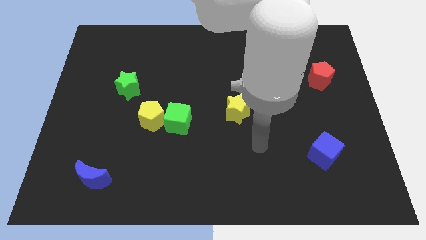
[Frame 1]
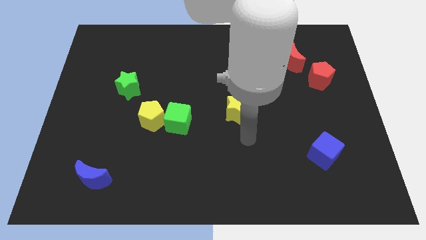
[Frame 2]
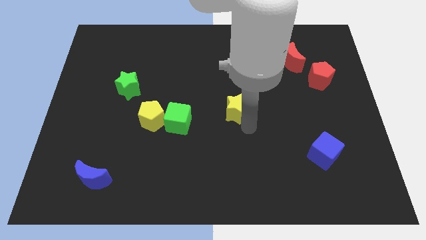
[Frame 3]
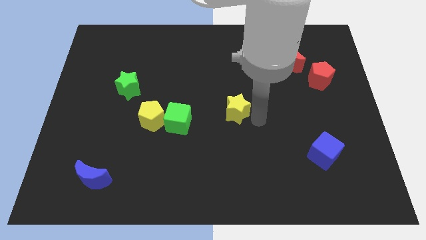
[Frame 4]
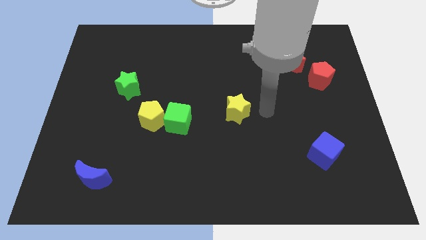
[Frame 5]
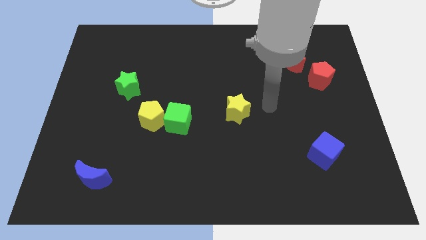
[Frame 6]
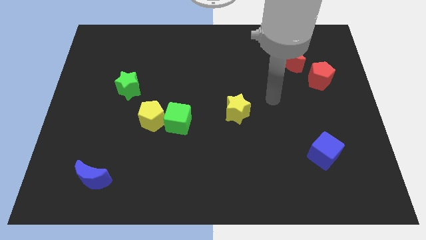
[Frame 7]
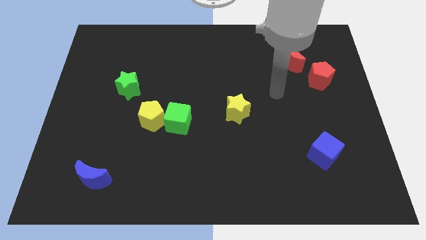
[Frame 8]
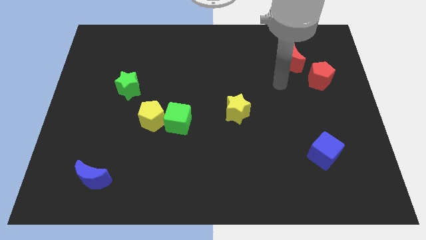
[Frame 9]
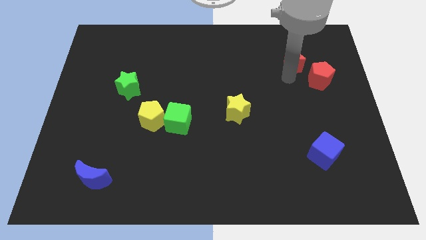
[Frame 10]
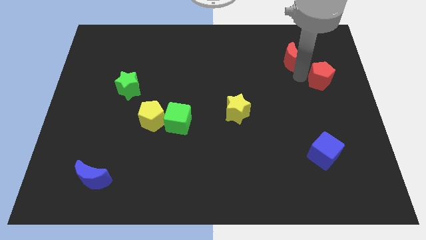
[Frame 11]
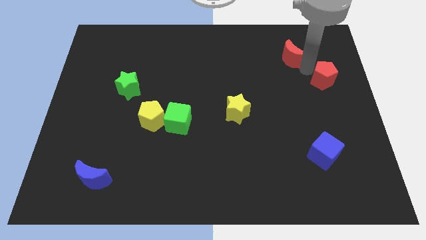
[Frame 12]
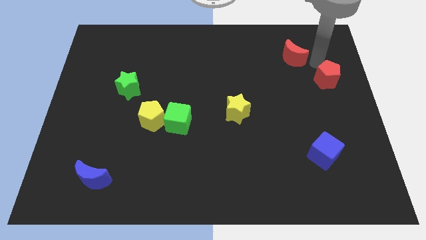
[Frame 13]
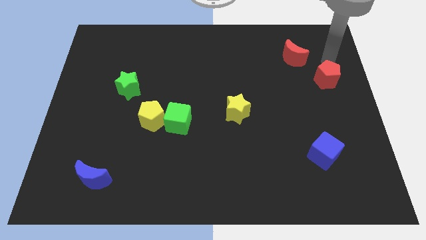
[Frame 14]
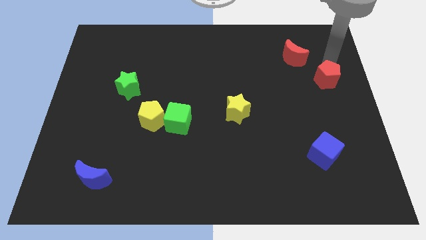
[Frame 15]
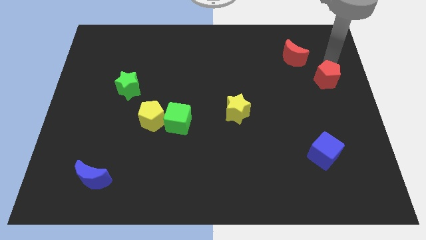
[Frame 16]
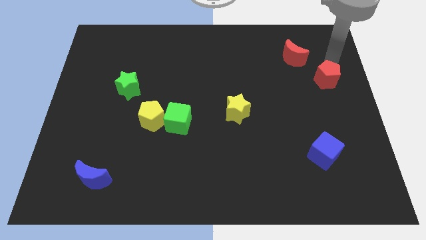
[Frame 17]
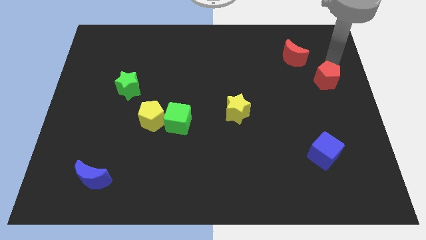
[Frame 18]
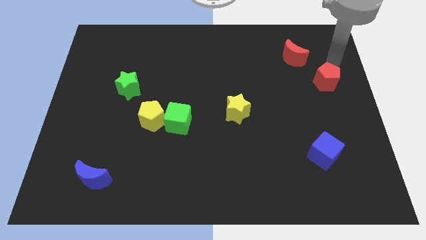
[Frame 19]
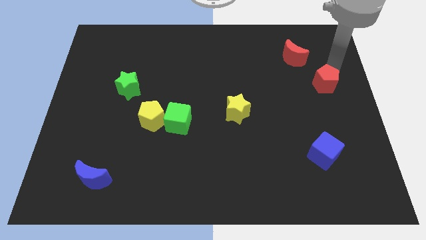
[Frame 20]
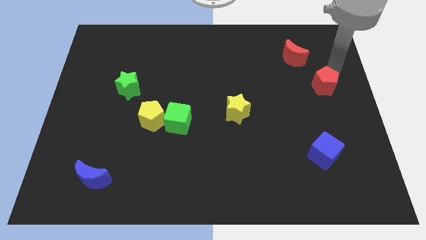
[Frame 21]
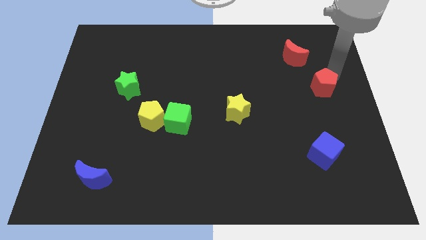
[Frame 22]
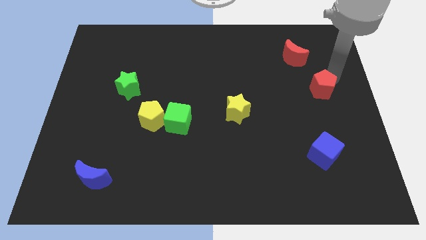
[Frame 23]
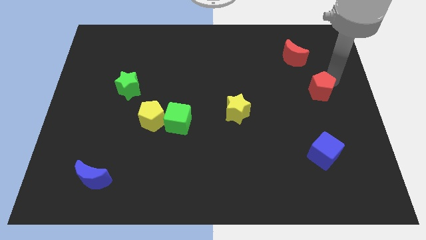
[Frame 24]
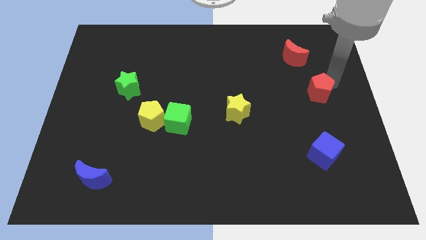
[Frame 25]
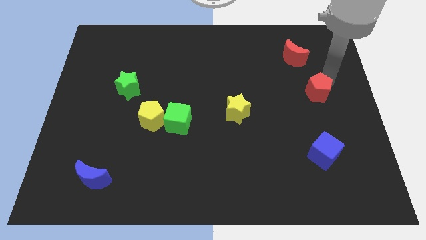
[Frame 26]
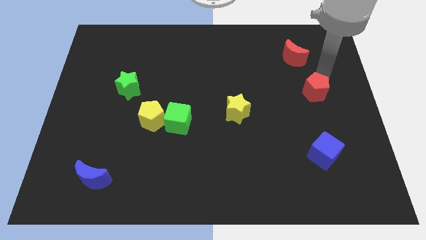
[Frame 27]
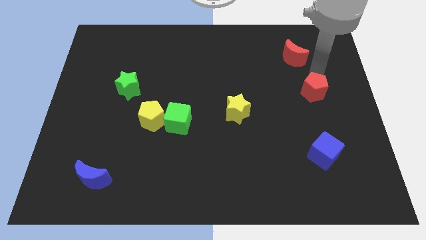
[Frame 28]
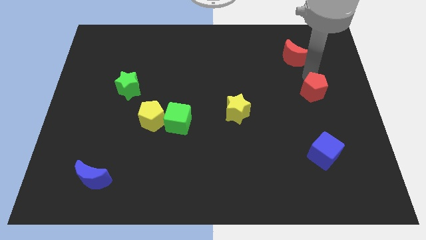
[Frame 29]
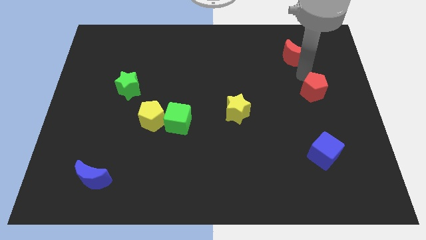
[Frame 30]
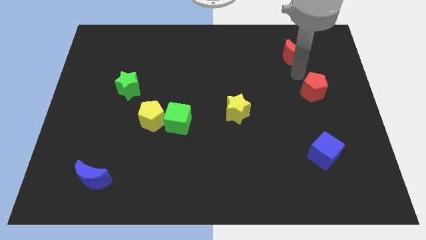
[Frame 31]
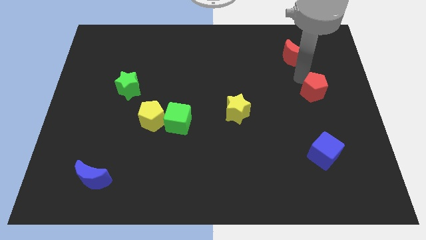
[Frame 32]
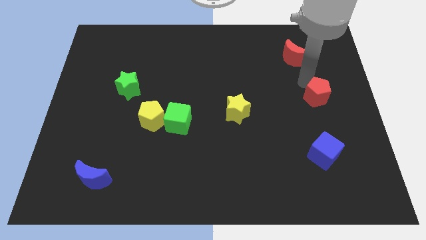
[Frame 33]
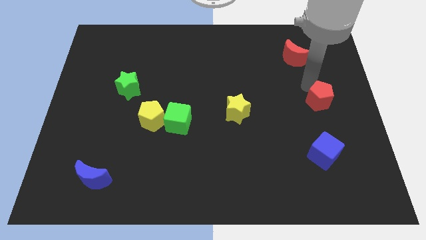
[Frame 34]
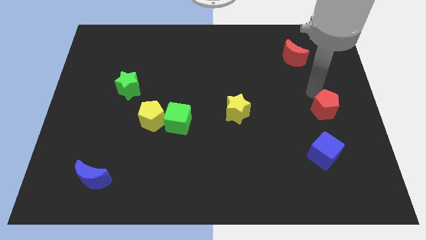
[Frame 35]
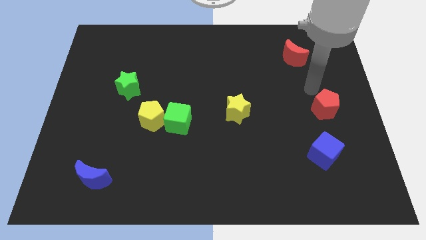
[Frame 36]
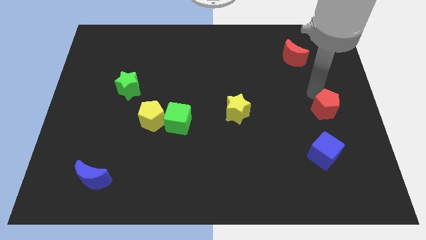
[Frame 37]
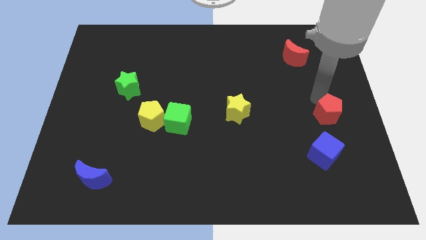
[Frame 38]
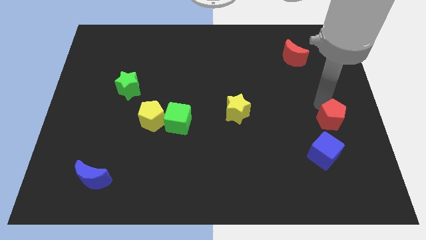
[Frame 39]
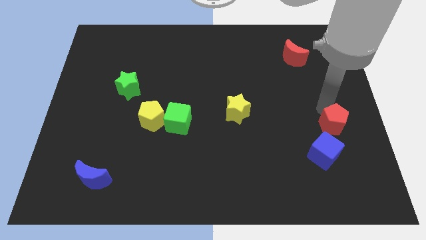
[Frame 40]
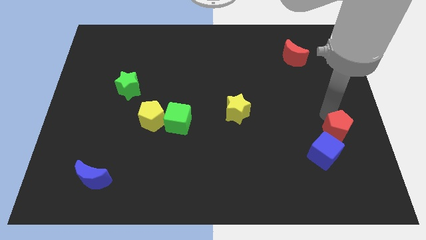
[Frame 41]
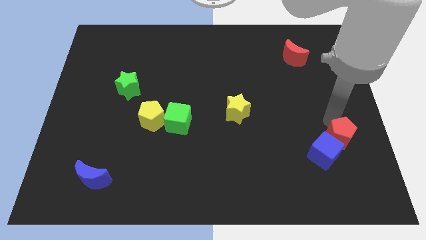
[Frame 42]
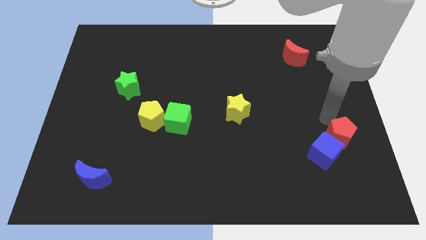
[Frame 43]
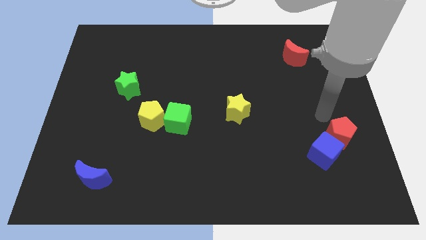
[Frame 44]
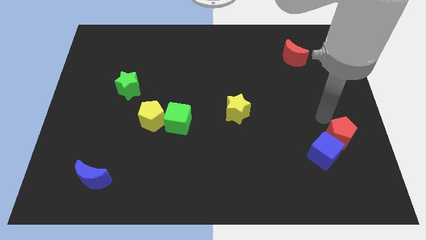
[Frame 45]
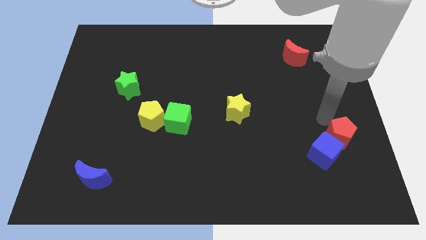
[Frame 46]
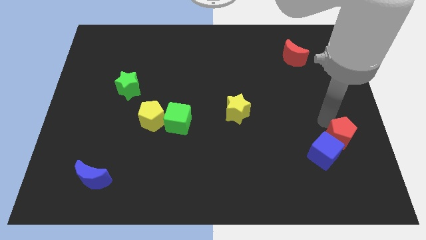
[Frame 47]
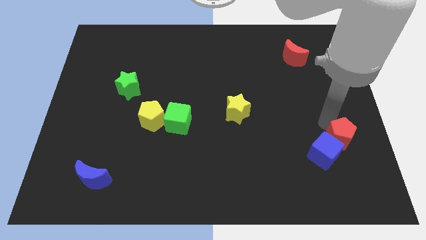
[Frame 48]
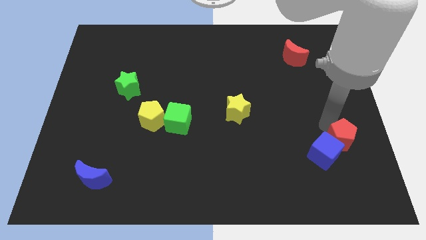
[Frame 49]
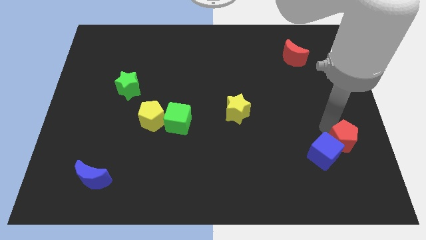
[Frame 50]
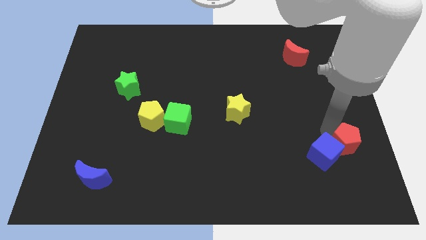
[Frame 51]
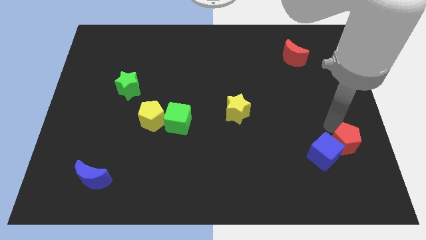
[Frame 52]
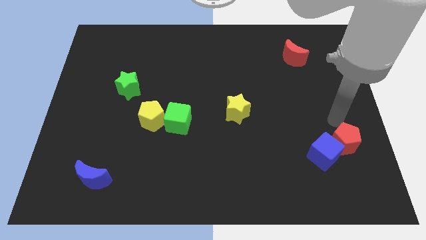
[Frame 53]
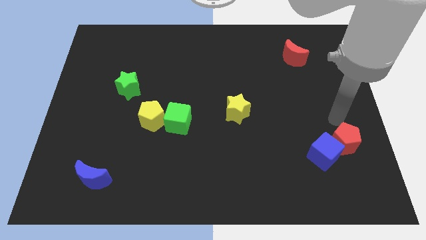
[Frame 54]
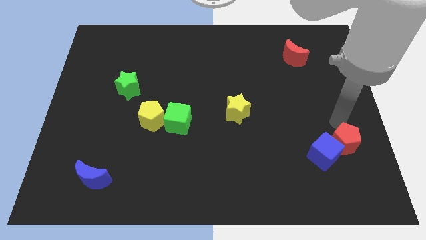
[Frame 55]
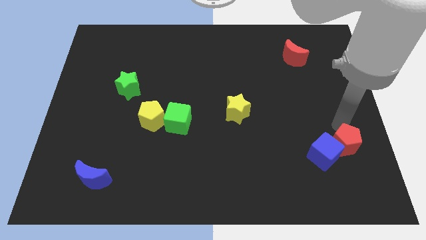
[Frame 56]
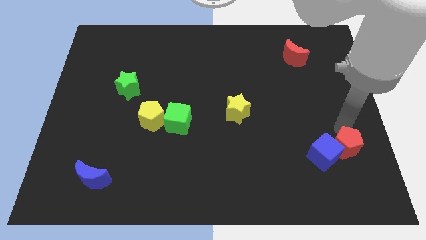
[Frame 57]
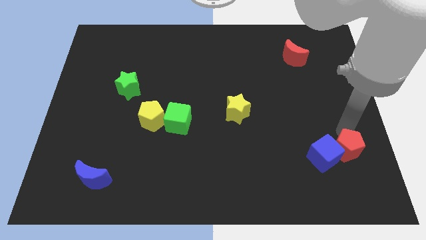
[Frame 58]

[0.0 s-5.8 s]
put the red pentagon to the bottom right of the blue cube

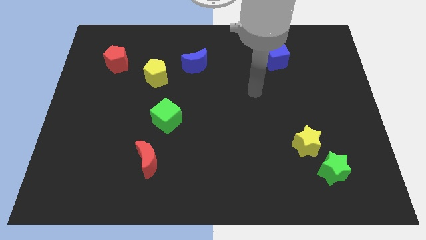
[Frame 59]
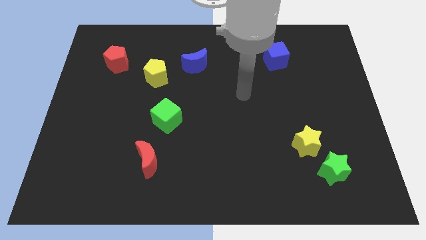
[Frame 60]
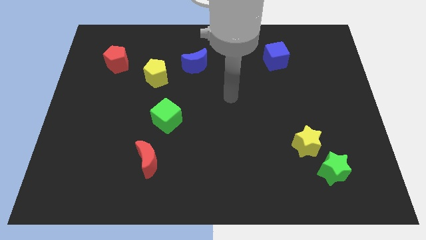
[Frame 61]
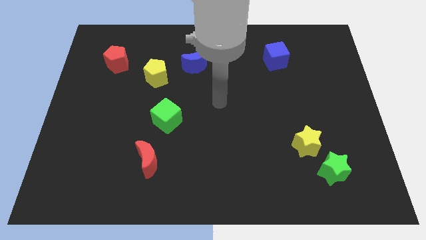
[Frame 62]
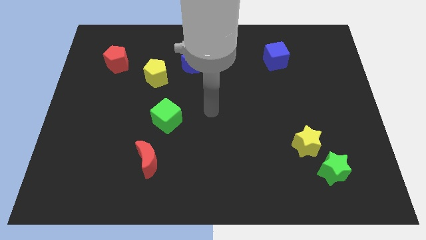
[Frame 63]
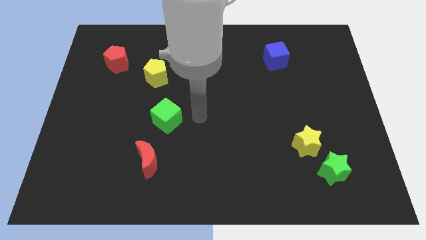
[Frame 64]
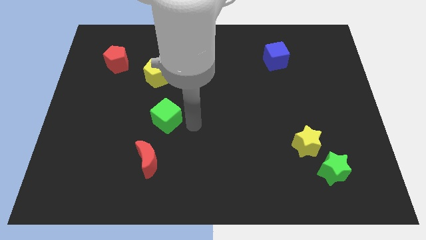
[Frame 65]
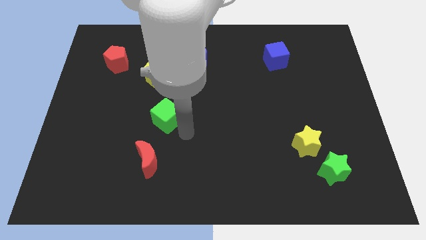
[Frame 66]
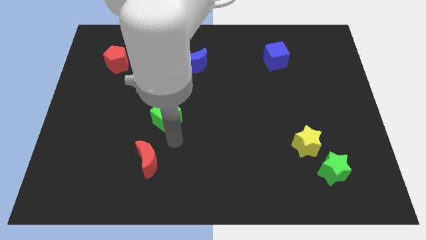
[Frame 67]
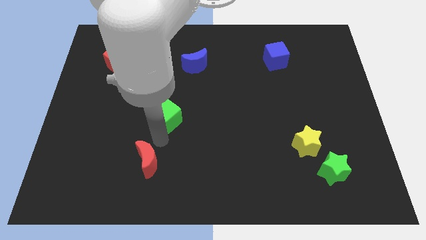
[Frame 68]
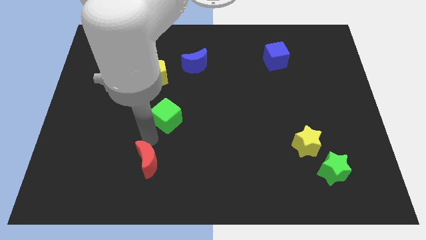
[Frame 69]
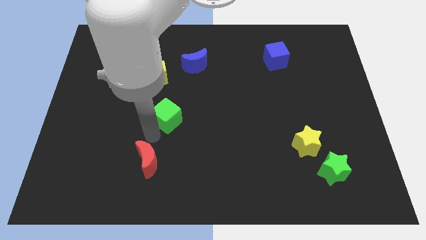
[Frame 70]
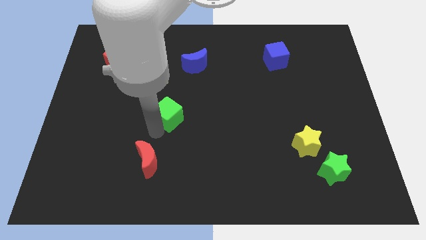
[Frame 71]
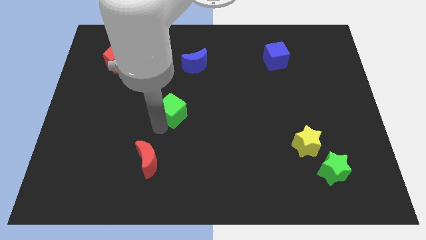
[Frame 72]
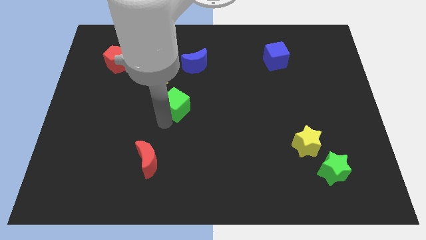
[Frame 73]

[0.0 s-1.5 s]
put the green cube below the blue moon
